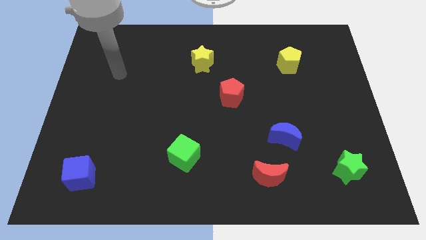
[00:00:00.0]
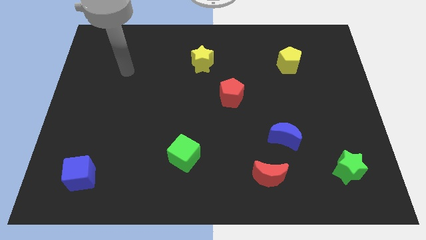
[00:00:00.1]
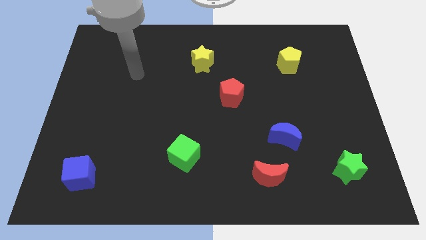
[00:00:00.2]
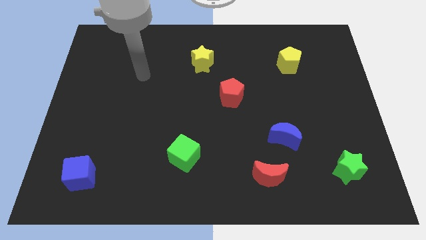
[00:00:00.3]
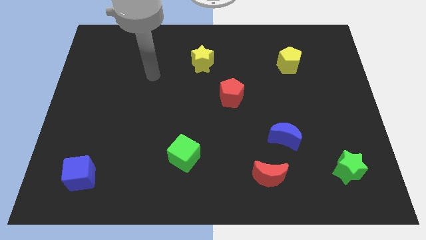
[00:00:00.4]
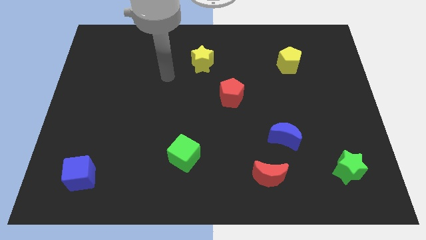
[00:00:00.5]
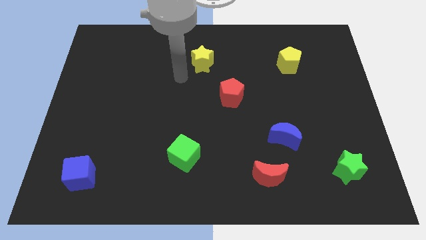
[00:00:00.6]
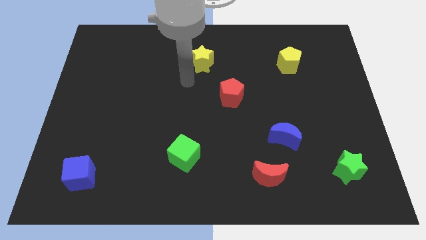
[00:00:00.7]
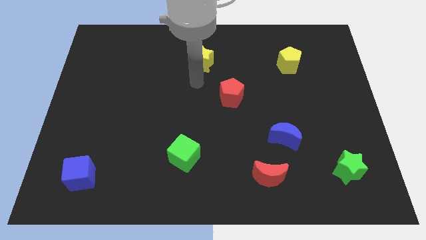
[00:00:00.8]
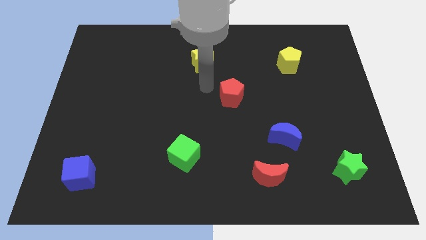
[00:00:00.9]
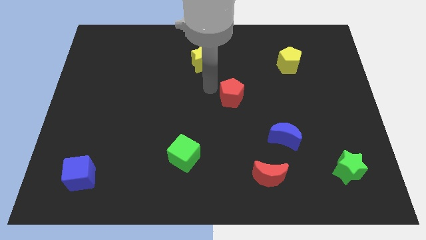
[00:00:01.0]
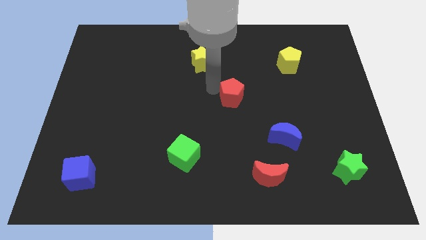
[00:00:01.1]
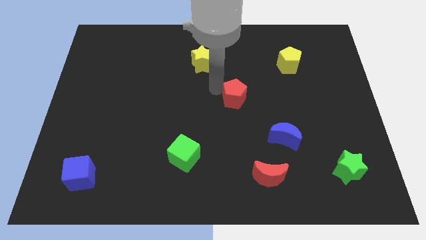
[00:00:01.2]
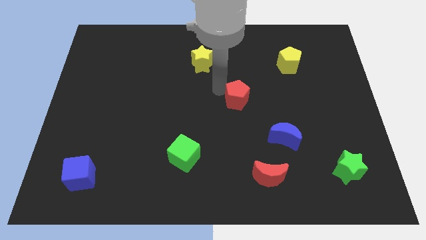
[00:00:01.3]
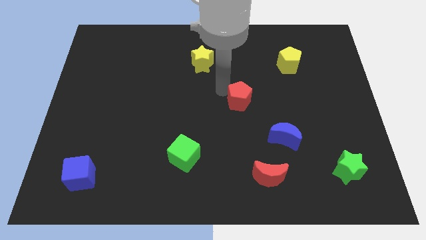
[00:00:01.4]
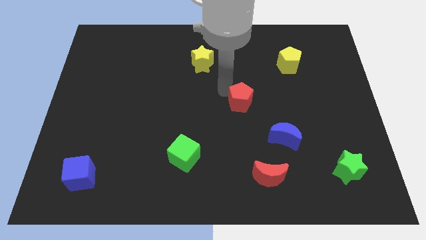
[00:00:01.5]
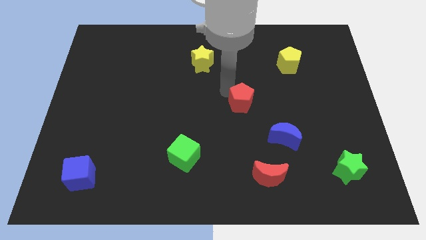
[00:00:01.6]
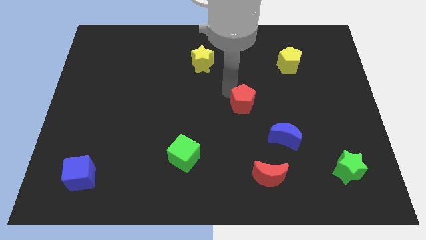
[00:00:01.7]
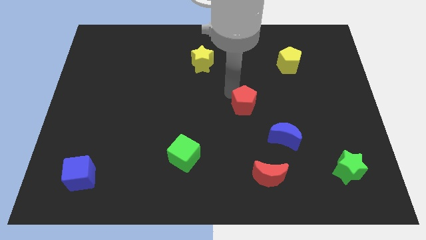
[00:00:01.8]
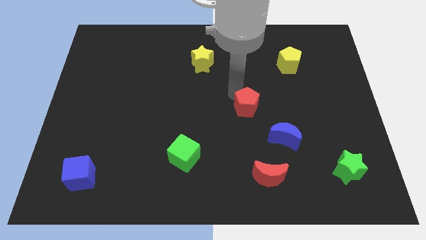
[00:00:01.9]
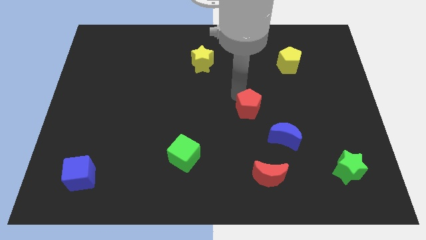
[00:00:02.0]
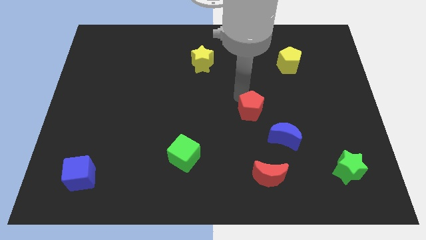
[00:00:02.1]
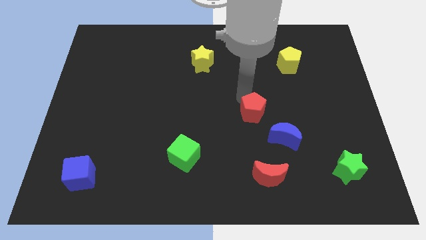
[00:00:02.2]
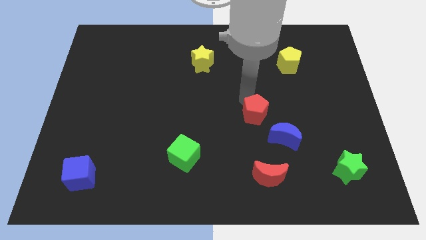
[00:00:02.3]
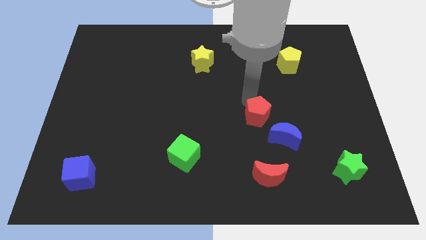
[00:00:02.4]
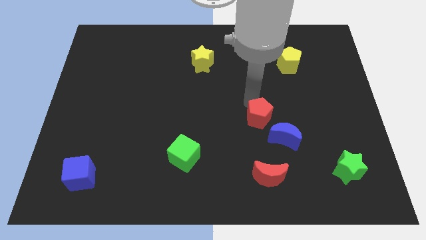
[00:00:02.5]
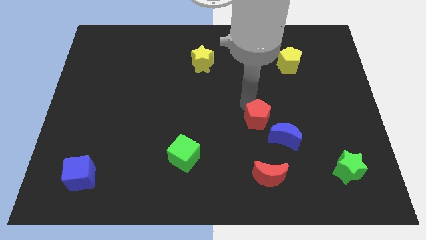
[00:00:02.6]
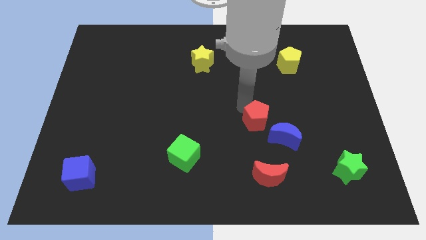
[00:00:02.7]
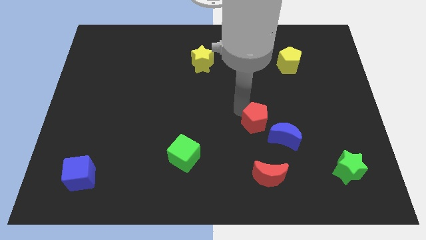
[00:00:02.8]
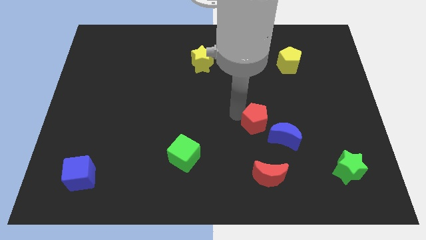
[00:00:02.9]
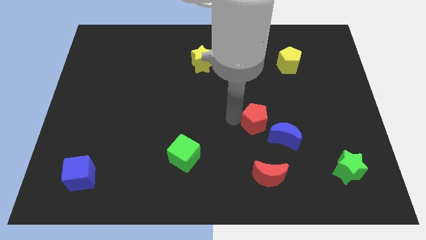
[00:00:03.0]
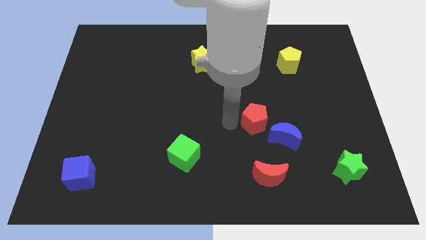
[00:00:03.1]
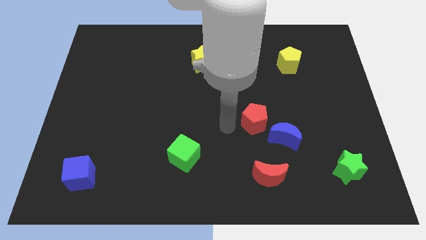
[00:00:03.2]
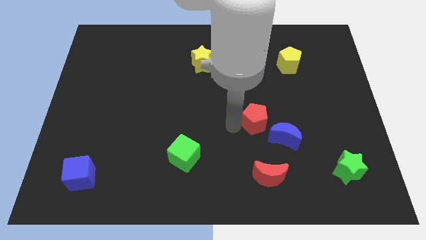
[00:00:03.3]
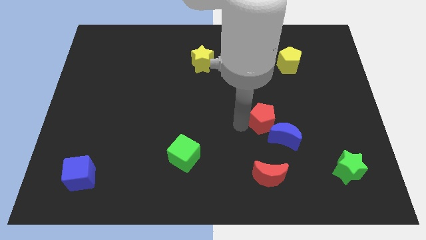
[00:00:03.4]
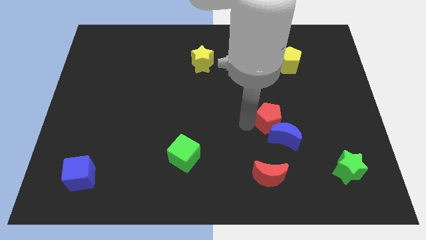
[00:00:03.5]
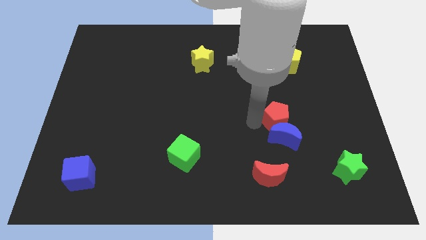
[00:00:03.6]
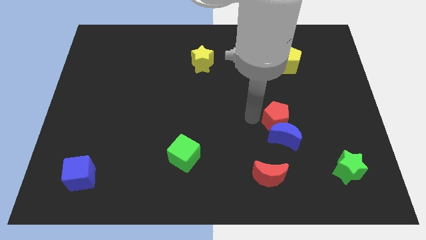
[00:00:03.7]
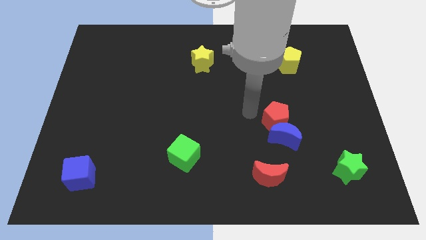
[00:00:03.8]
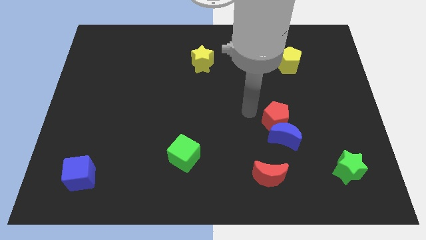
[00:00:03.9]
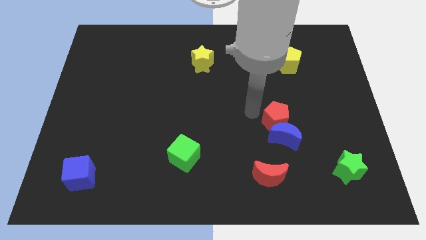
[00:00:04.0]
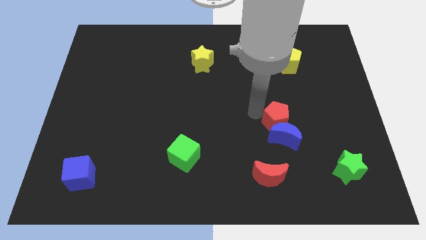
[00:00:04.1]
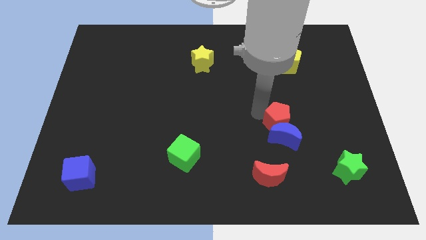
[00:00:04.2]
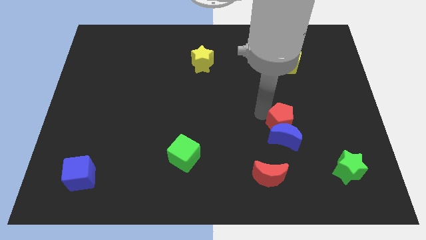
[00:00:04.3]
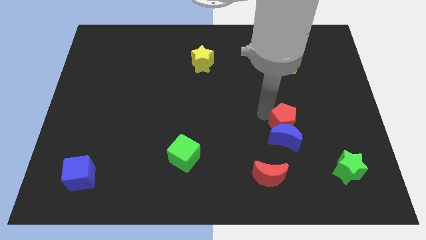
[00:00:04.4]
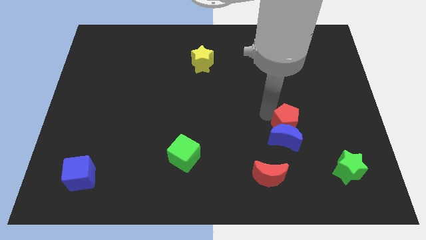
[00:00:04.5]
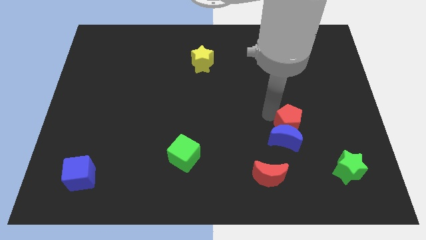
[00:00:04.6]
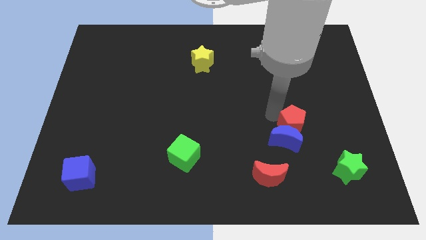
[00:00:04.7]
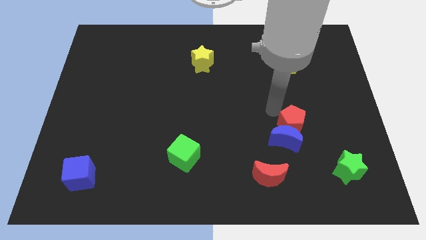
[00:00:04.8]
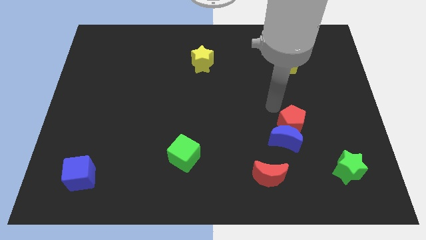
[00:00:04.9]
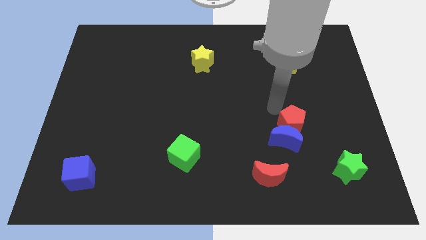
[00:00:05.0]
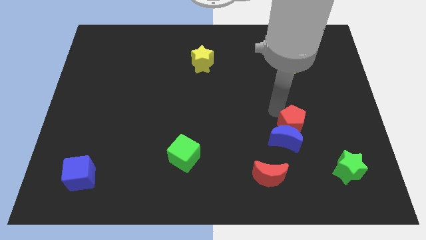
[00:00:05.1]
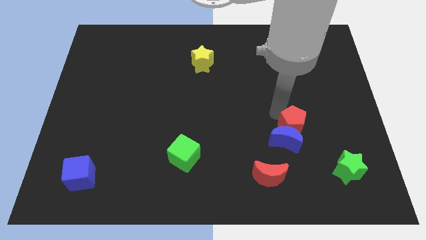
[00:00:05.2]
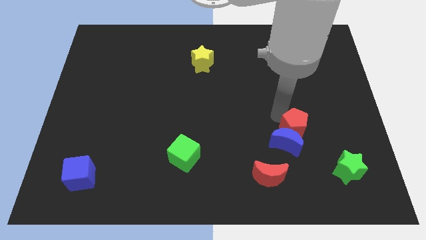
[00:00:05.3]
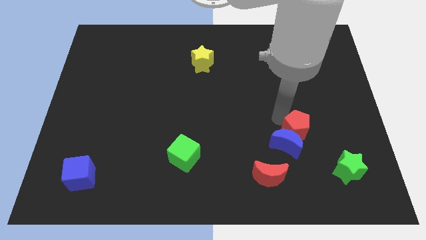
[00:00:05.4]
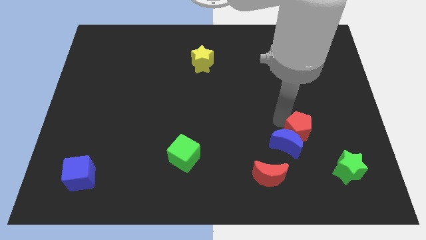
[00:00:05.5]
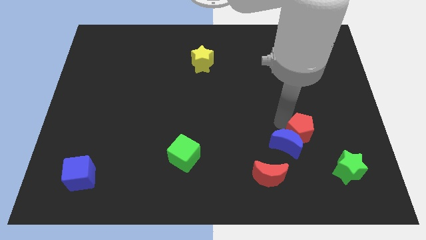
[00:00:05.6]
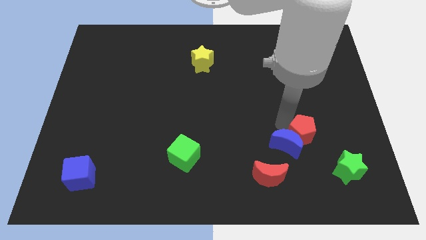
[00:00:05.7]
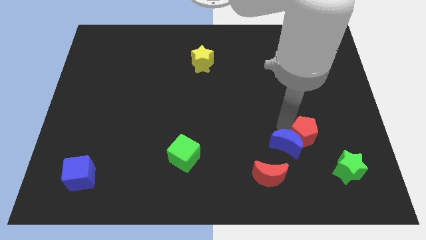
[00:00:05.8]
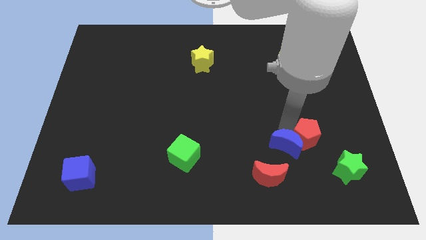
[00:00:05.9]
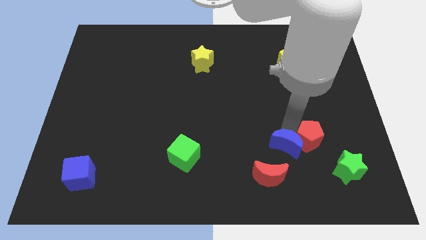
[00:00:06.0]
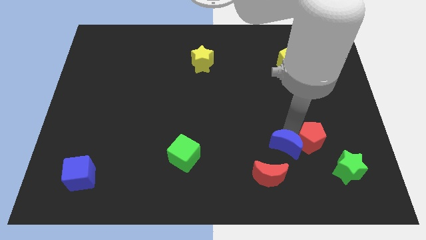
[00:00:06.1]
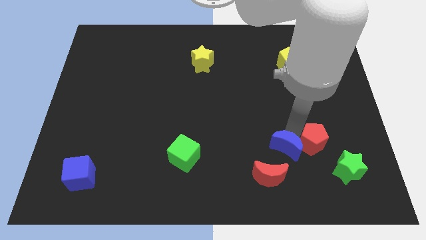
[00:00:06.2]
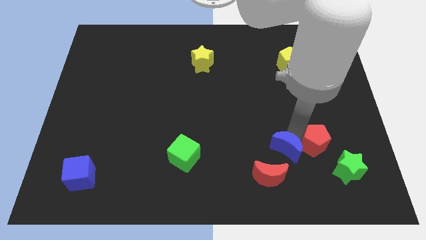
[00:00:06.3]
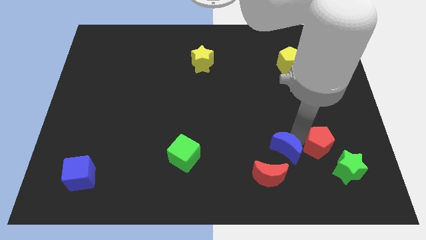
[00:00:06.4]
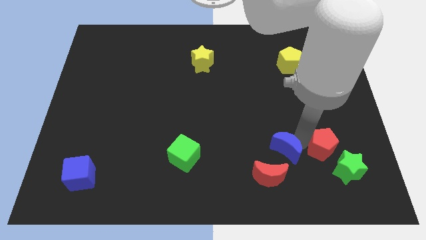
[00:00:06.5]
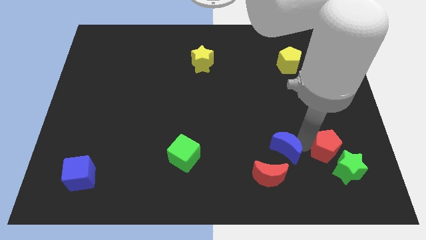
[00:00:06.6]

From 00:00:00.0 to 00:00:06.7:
put the red pentagon to the green star

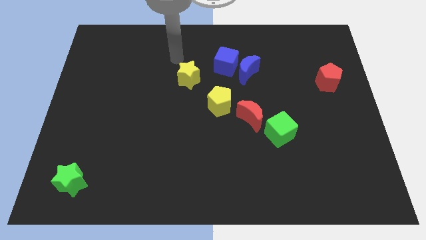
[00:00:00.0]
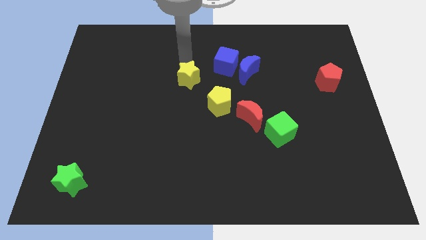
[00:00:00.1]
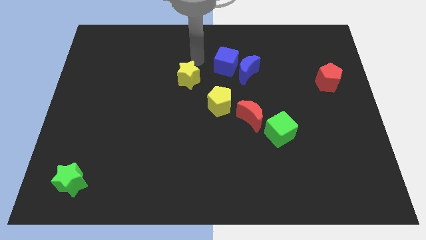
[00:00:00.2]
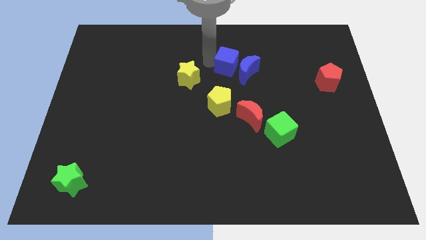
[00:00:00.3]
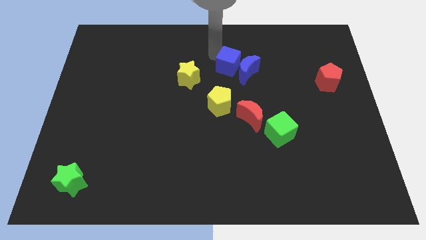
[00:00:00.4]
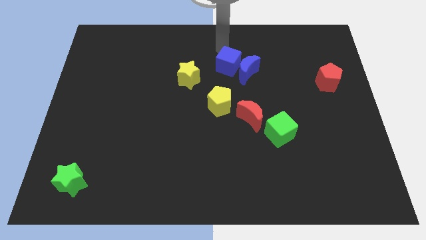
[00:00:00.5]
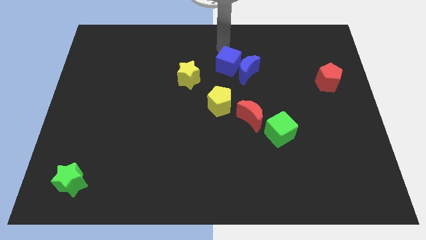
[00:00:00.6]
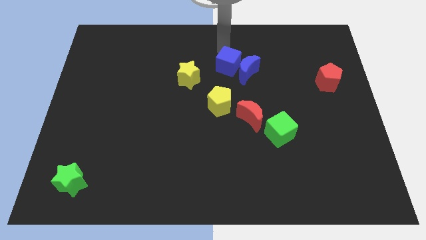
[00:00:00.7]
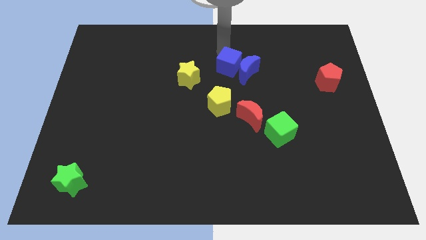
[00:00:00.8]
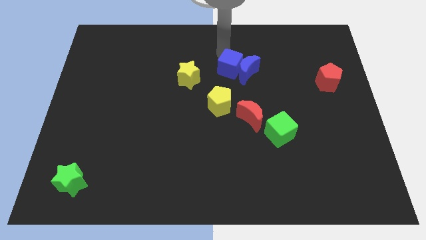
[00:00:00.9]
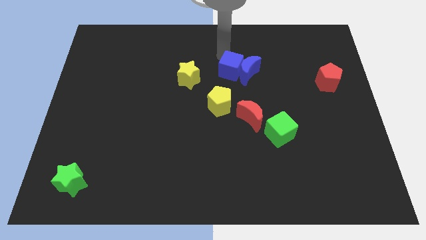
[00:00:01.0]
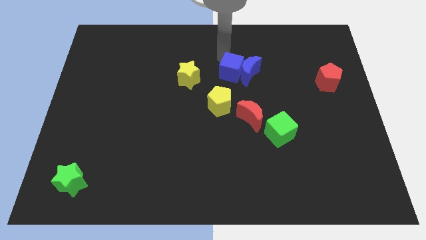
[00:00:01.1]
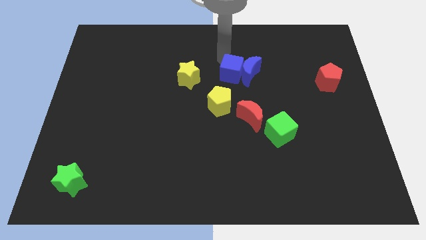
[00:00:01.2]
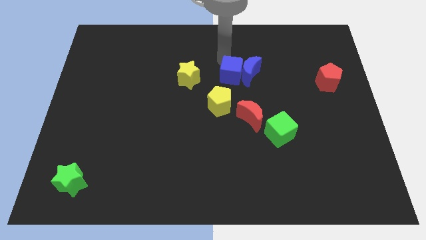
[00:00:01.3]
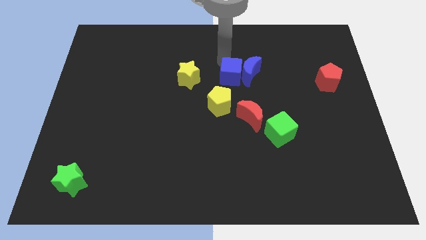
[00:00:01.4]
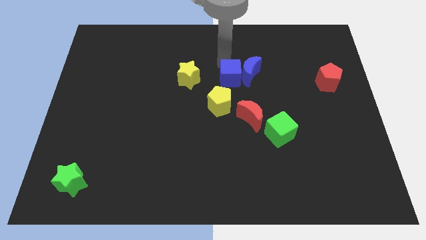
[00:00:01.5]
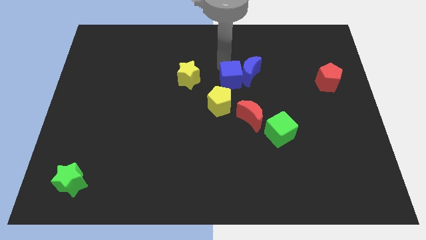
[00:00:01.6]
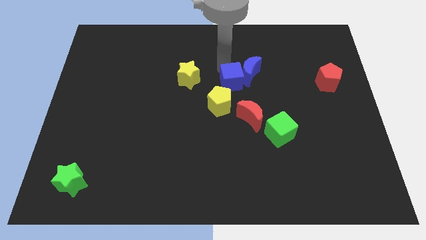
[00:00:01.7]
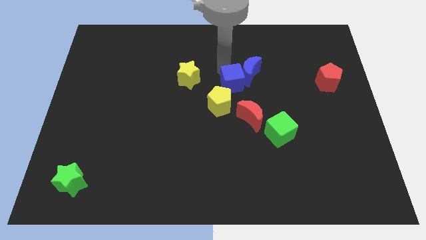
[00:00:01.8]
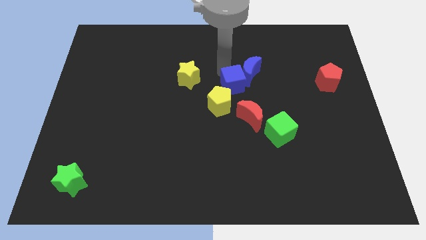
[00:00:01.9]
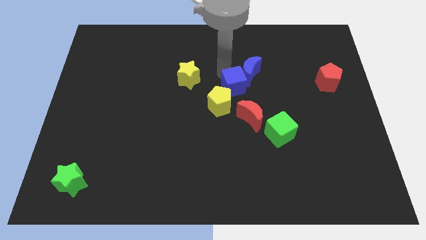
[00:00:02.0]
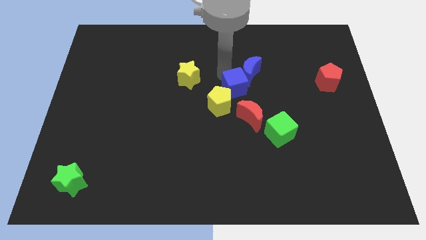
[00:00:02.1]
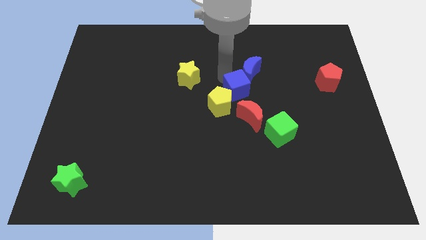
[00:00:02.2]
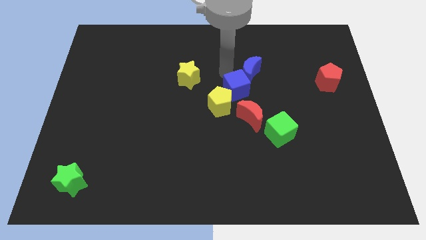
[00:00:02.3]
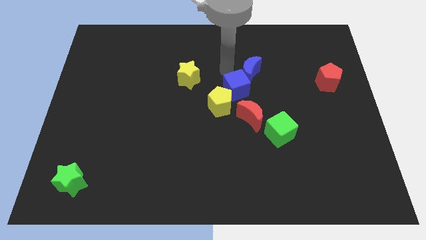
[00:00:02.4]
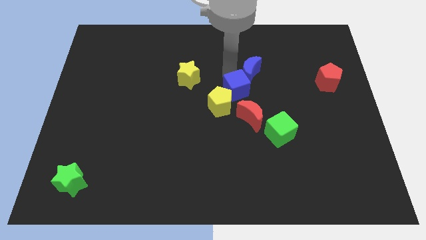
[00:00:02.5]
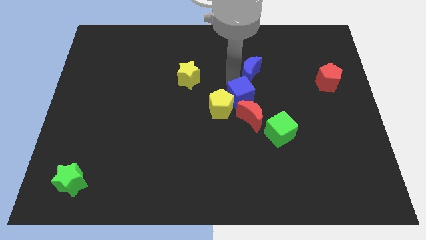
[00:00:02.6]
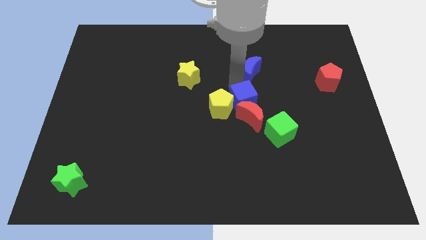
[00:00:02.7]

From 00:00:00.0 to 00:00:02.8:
push the blue cube towards the red moon
